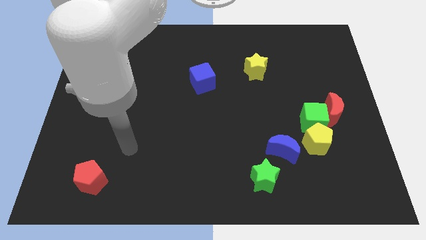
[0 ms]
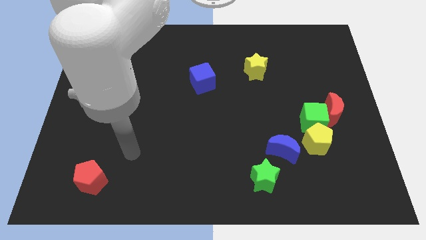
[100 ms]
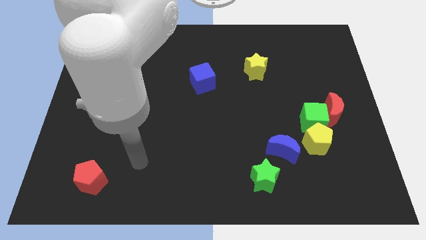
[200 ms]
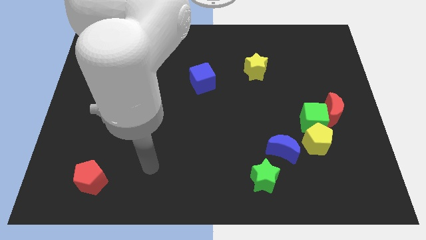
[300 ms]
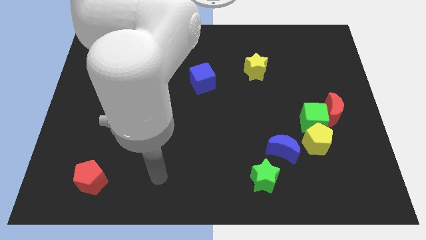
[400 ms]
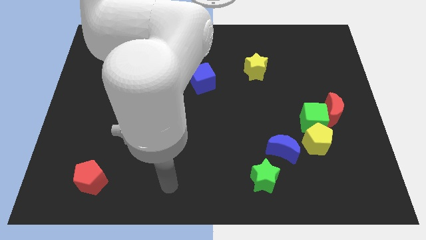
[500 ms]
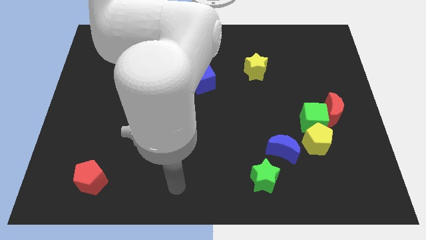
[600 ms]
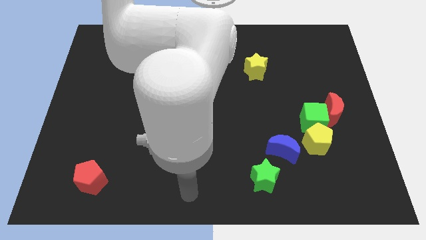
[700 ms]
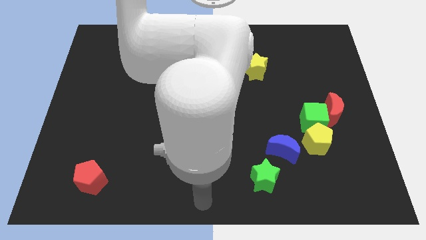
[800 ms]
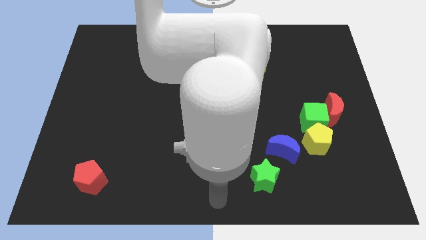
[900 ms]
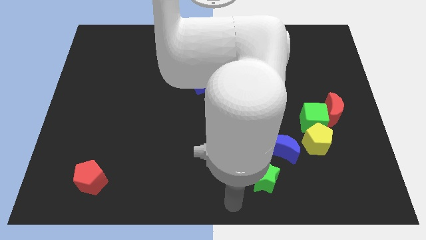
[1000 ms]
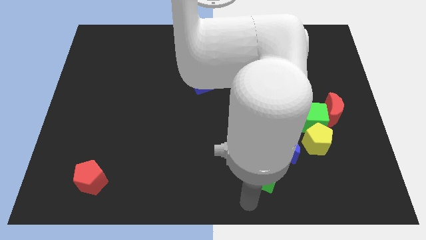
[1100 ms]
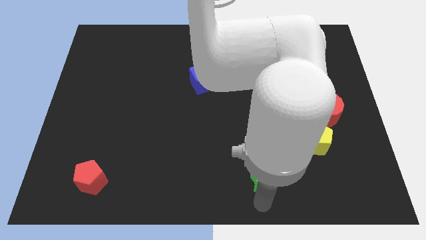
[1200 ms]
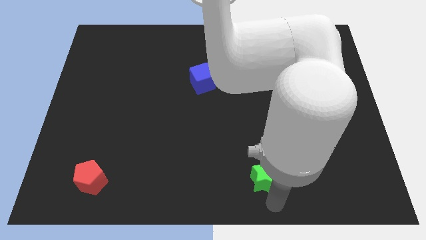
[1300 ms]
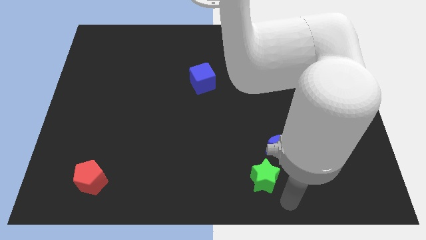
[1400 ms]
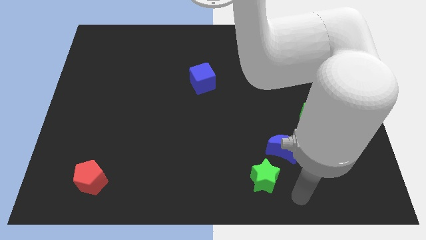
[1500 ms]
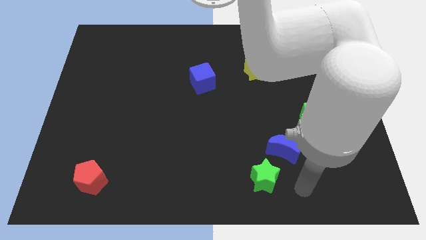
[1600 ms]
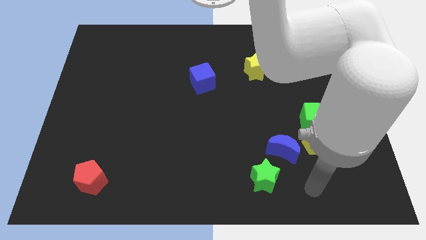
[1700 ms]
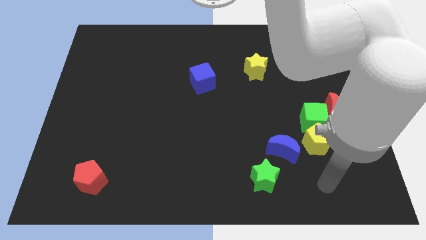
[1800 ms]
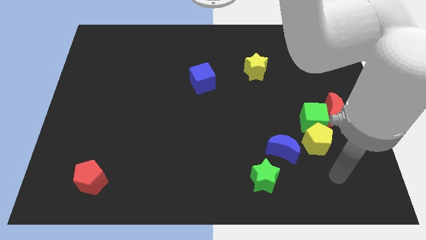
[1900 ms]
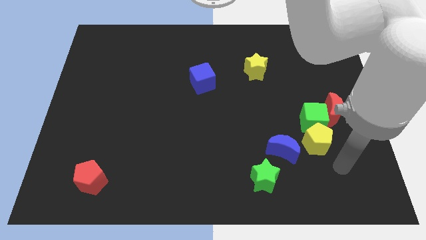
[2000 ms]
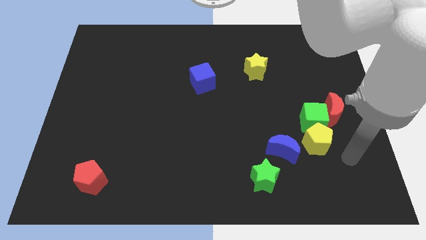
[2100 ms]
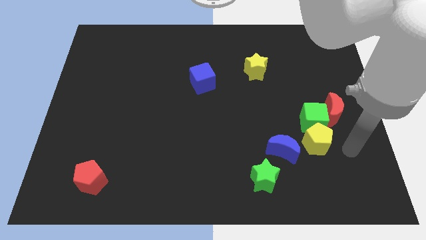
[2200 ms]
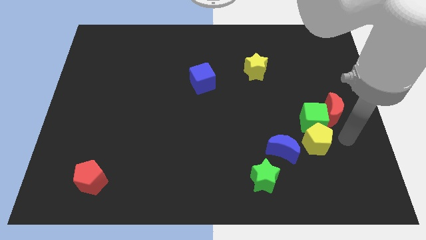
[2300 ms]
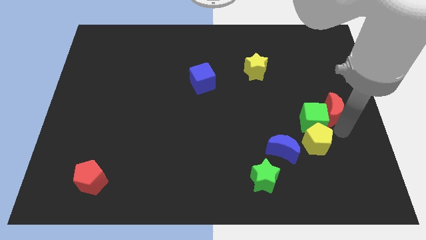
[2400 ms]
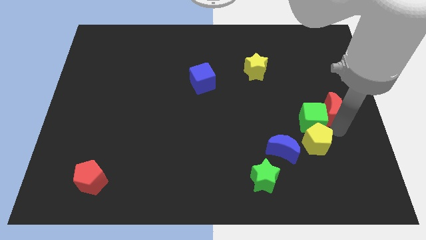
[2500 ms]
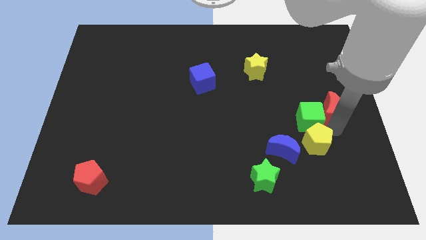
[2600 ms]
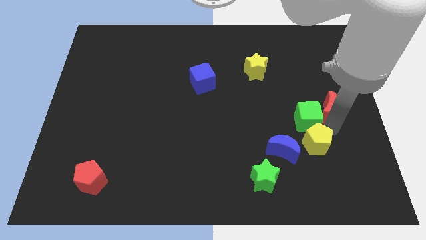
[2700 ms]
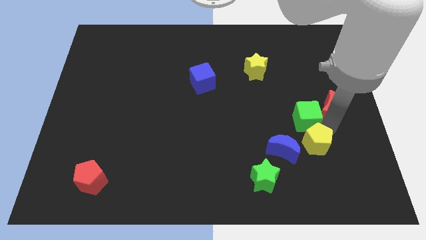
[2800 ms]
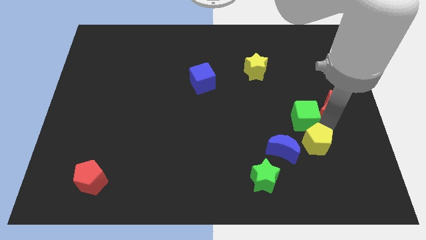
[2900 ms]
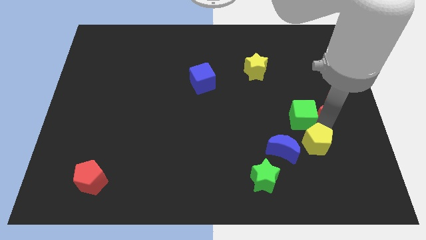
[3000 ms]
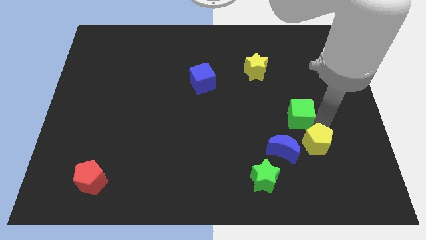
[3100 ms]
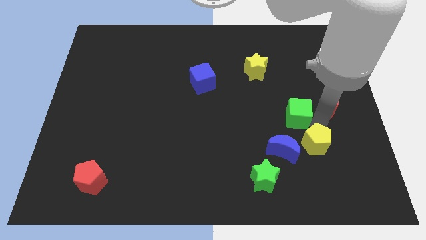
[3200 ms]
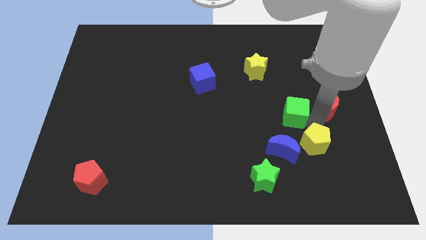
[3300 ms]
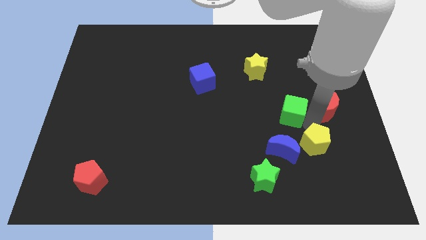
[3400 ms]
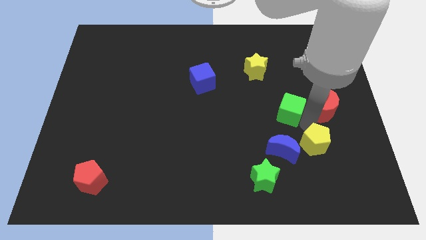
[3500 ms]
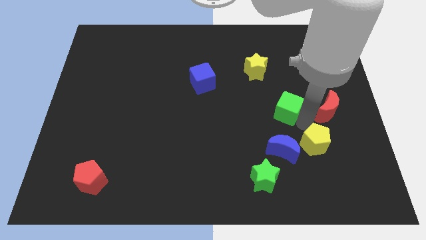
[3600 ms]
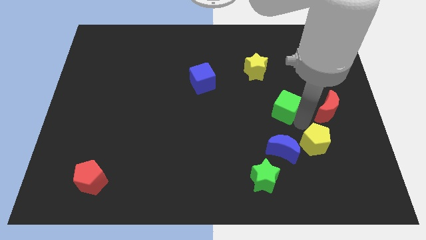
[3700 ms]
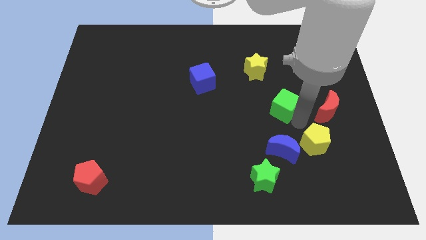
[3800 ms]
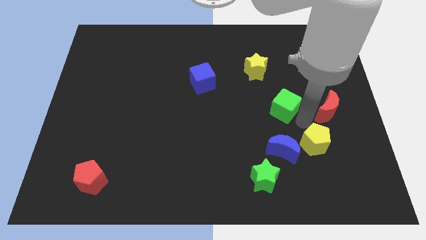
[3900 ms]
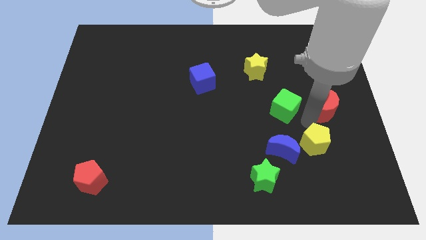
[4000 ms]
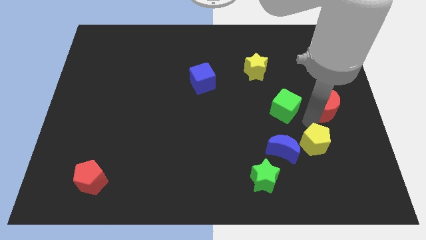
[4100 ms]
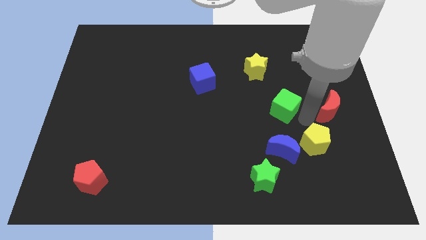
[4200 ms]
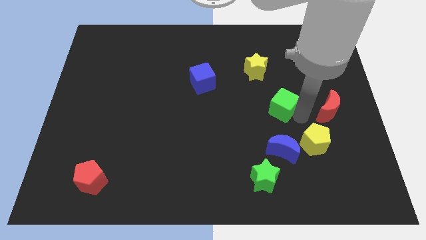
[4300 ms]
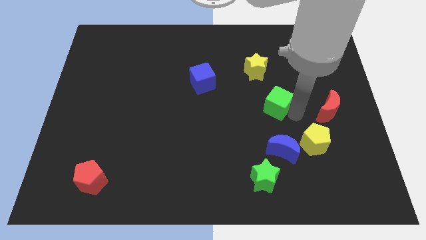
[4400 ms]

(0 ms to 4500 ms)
move the green cube away from the red moon and yellow pentagon

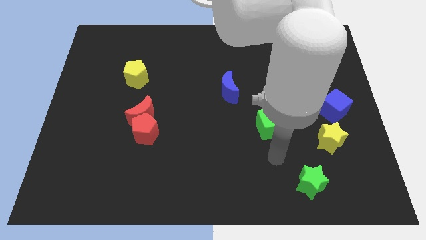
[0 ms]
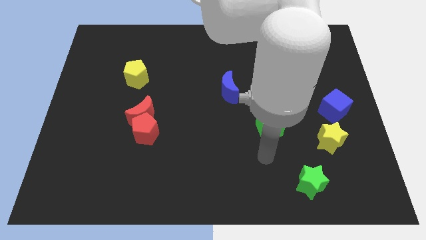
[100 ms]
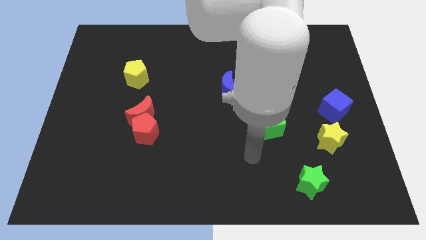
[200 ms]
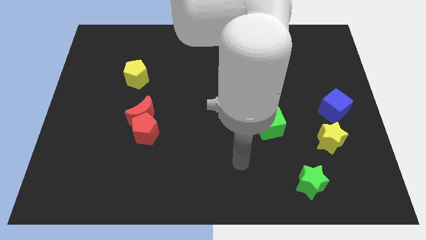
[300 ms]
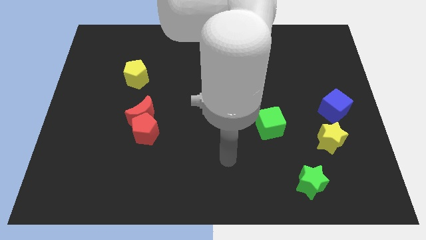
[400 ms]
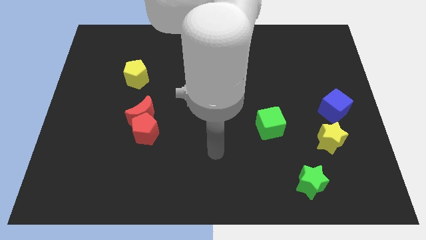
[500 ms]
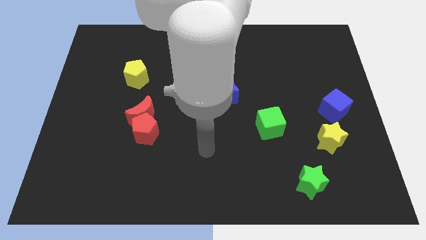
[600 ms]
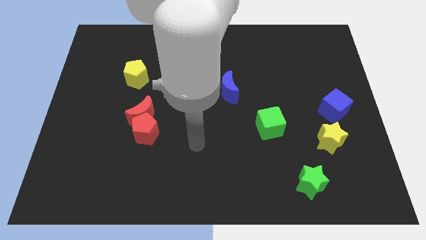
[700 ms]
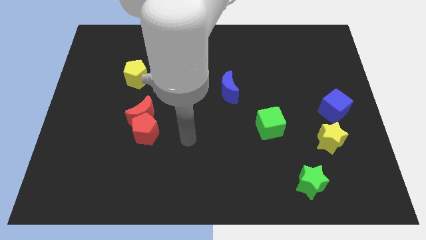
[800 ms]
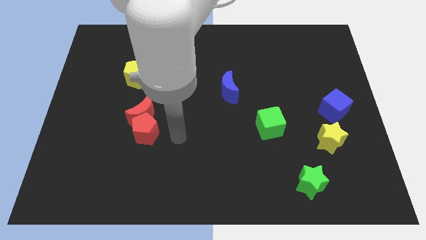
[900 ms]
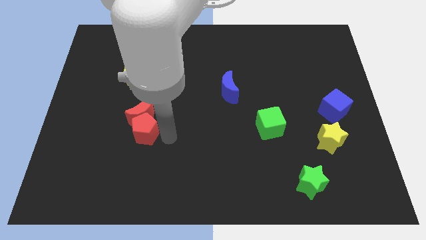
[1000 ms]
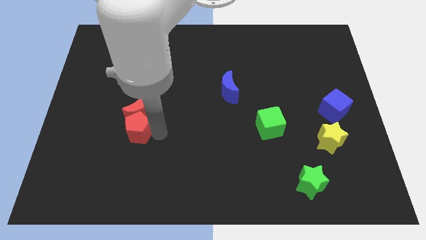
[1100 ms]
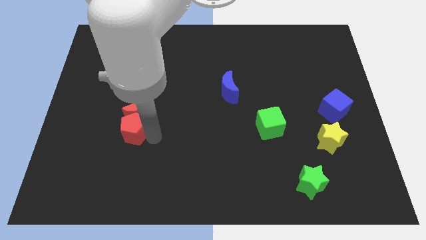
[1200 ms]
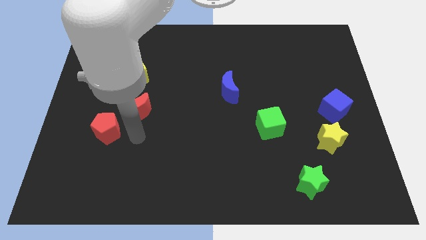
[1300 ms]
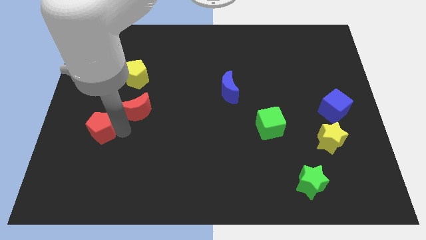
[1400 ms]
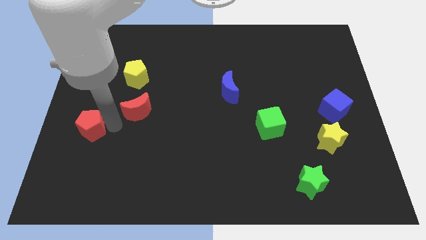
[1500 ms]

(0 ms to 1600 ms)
separate the red moon from the red pentagon

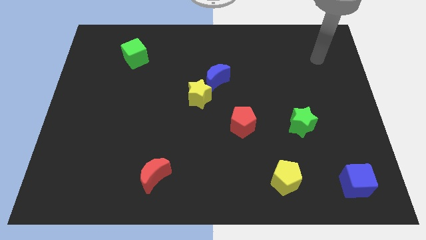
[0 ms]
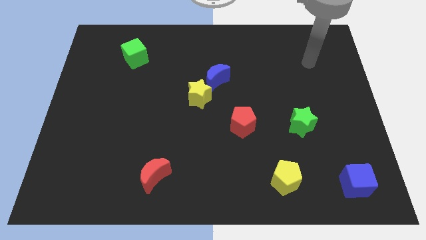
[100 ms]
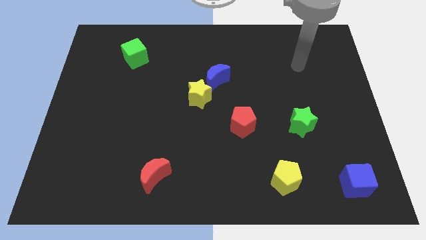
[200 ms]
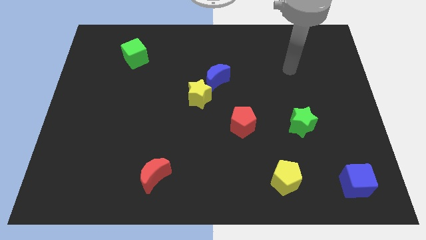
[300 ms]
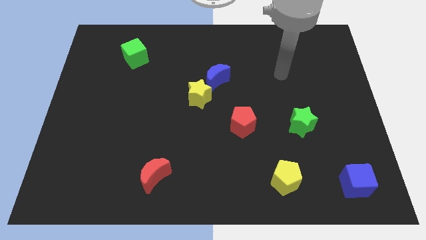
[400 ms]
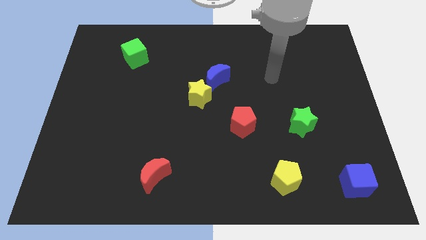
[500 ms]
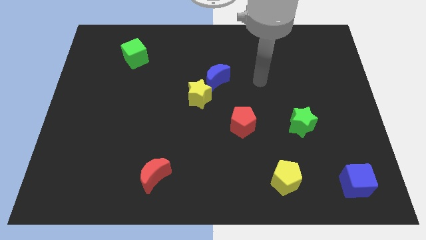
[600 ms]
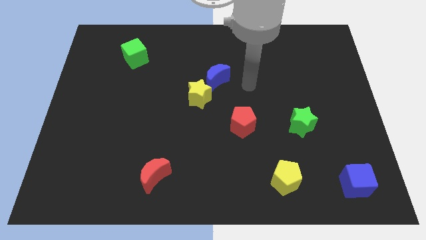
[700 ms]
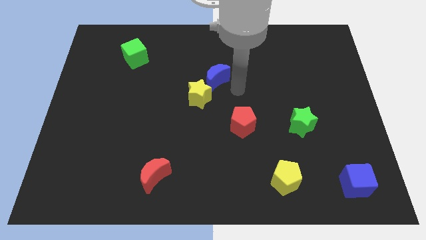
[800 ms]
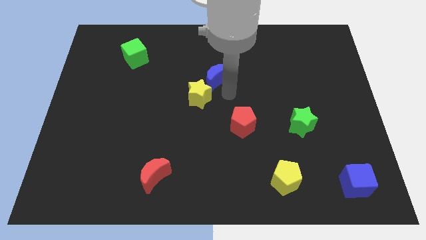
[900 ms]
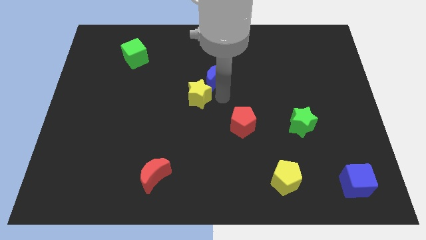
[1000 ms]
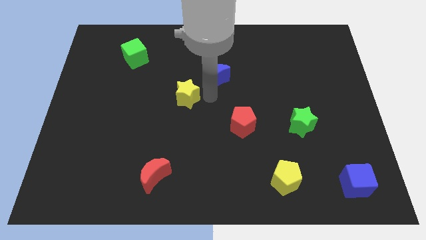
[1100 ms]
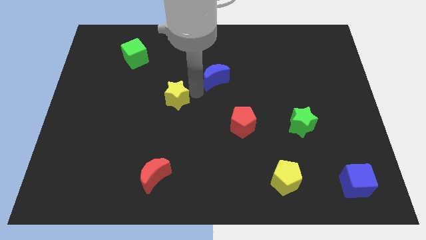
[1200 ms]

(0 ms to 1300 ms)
separate the blue moon from the yellow star

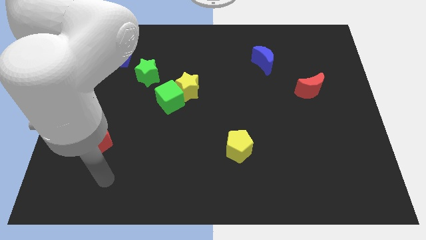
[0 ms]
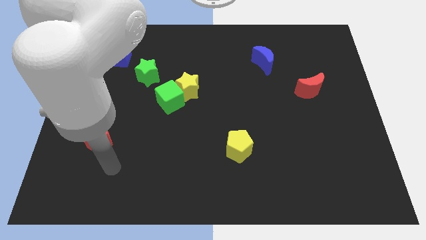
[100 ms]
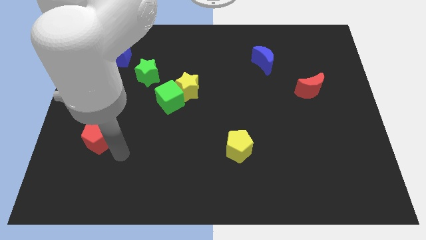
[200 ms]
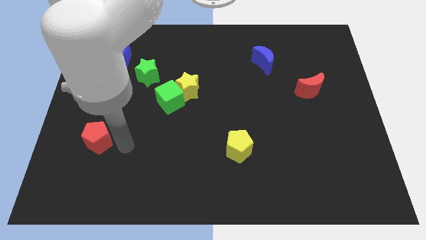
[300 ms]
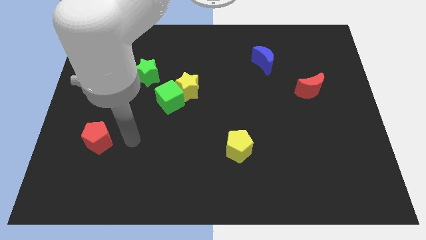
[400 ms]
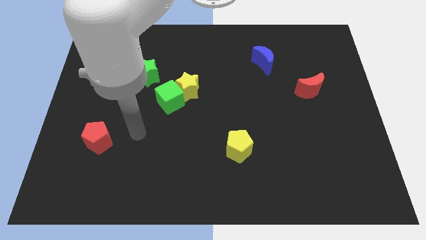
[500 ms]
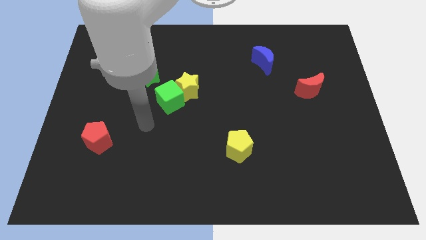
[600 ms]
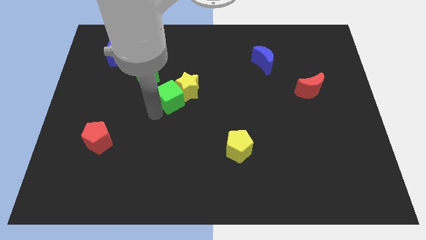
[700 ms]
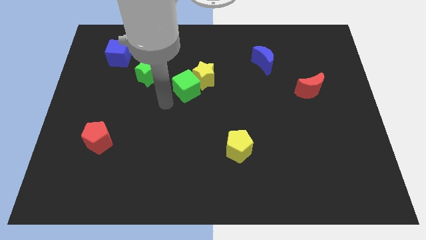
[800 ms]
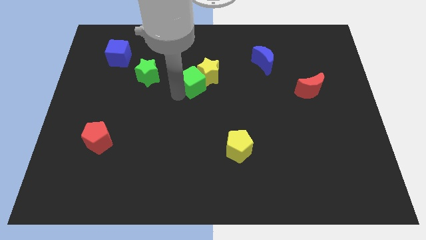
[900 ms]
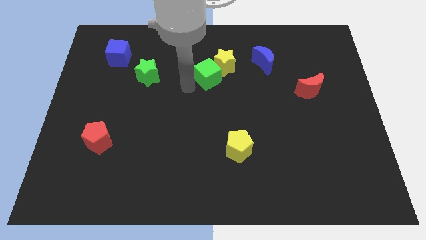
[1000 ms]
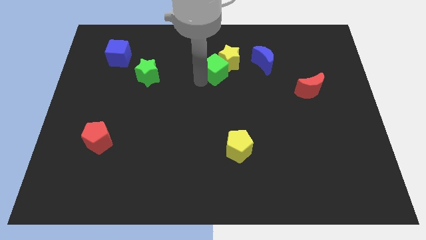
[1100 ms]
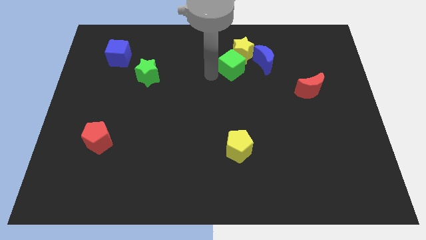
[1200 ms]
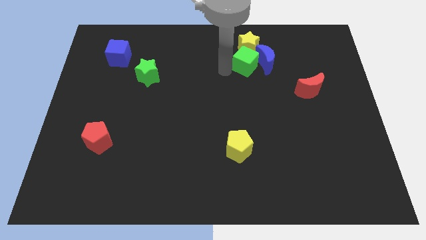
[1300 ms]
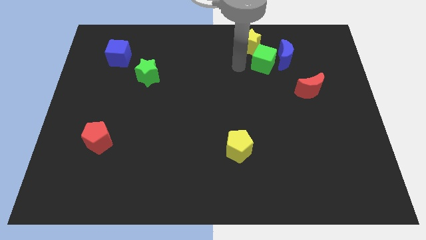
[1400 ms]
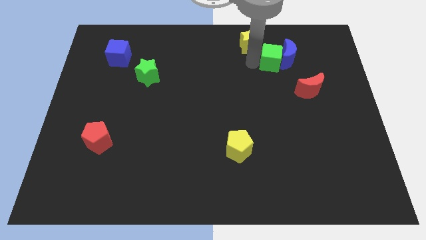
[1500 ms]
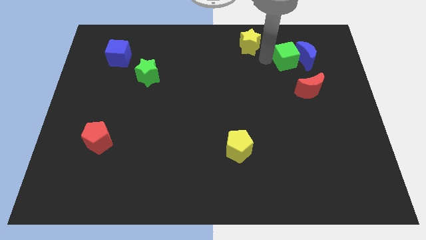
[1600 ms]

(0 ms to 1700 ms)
pull the yellow star apart from the green cube

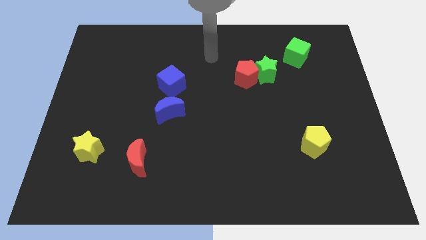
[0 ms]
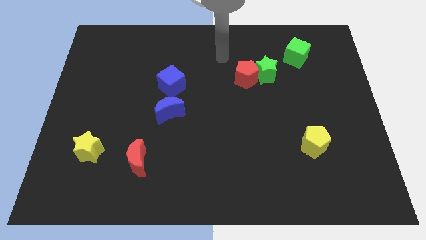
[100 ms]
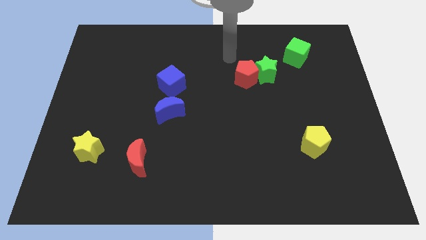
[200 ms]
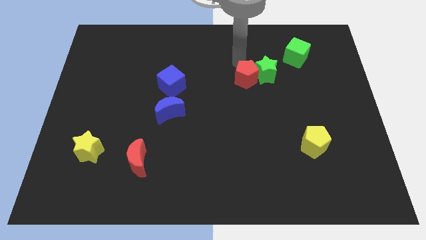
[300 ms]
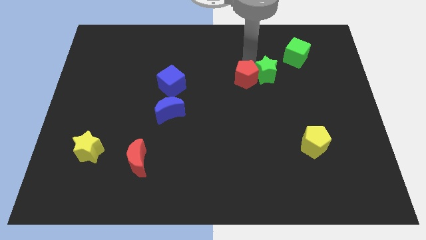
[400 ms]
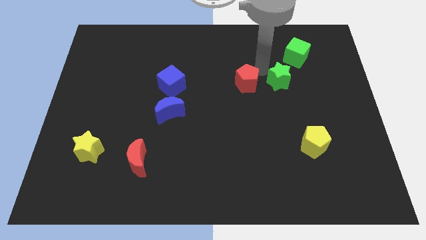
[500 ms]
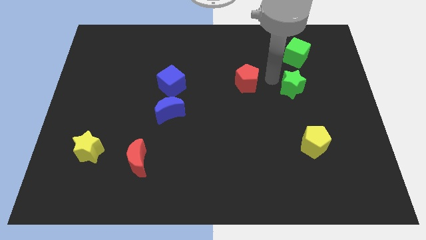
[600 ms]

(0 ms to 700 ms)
pull the red pentagon apart from the green star
